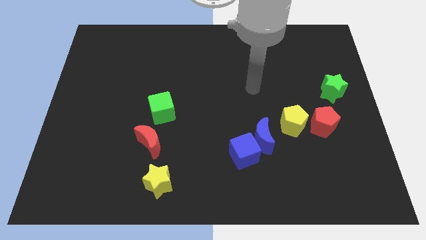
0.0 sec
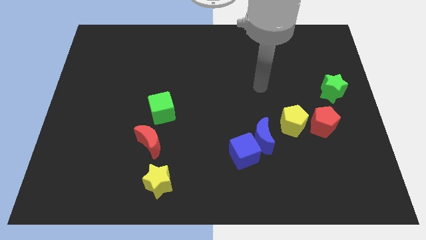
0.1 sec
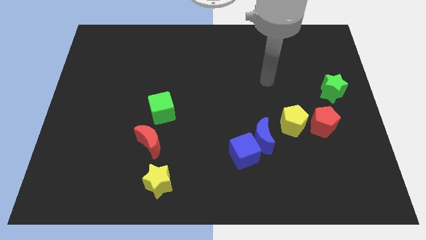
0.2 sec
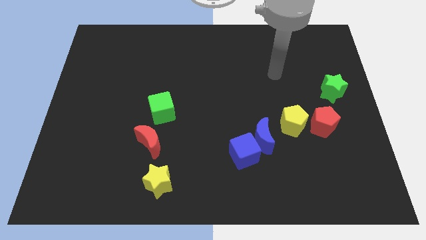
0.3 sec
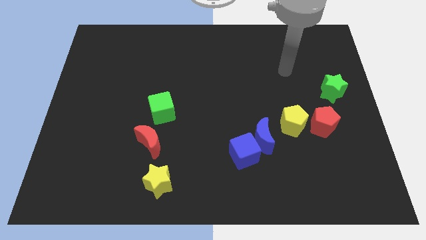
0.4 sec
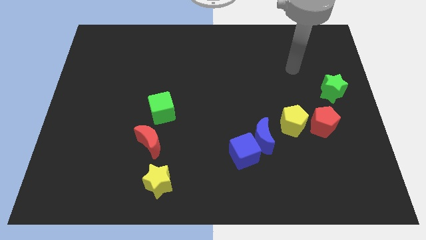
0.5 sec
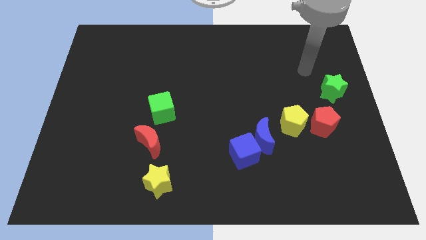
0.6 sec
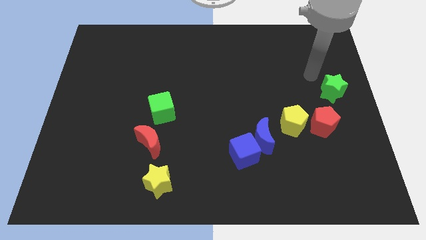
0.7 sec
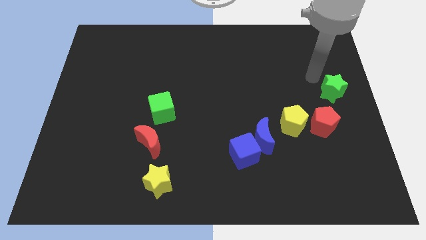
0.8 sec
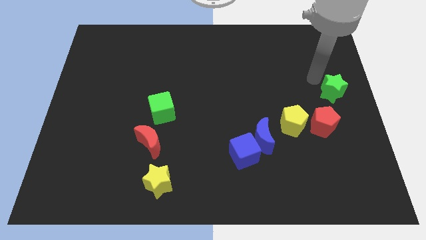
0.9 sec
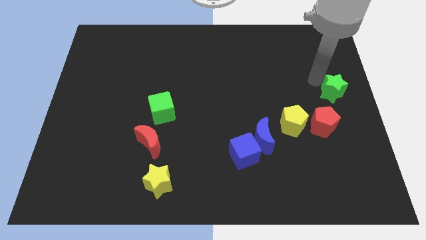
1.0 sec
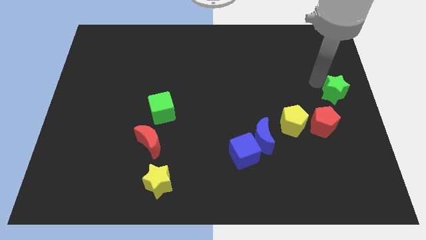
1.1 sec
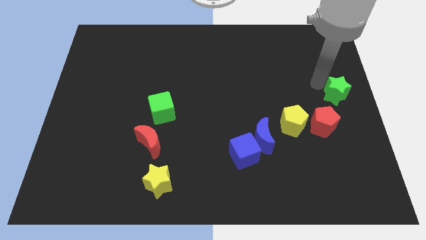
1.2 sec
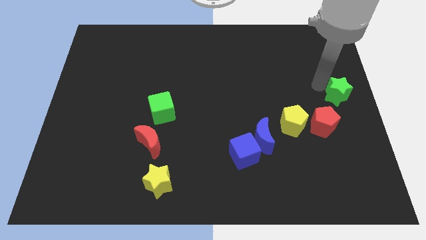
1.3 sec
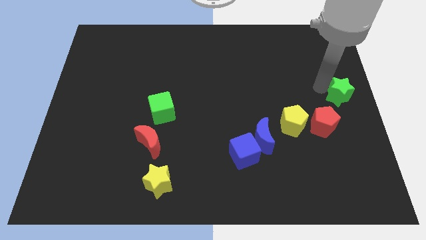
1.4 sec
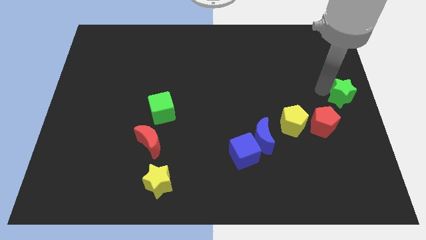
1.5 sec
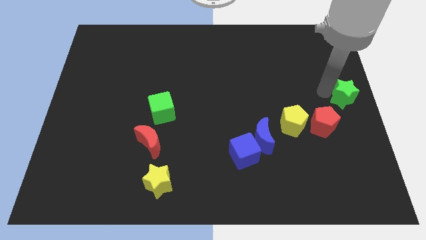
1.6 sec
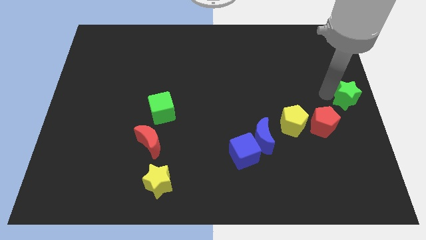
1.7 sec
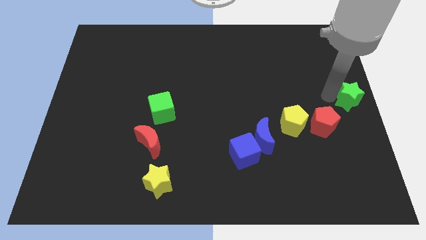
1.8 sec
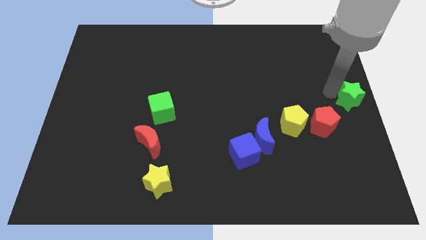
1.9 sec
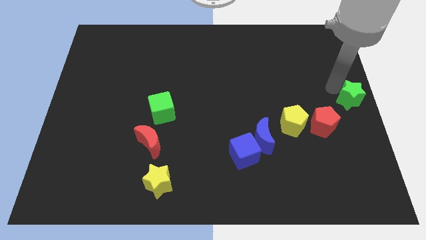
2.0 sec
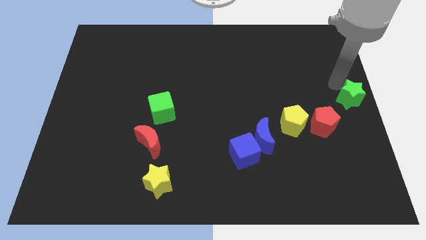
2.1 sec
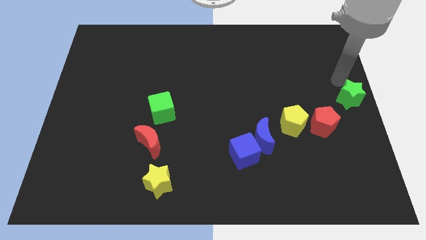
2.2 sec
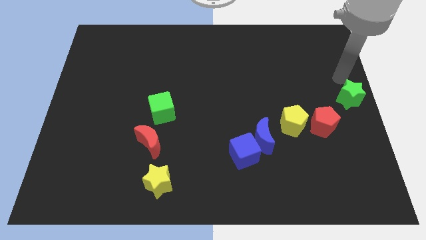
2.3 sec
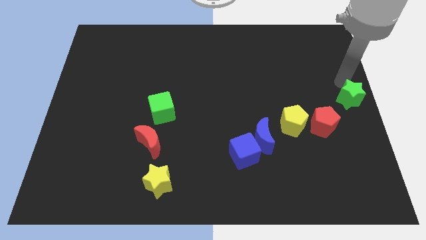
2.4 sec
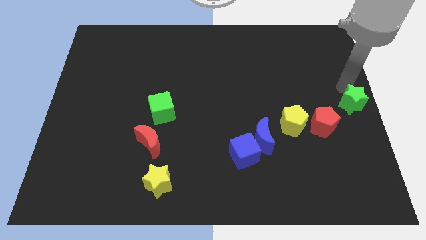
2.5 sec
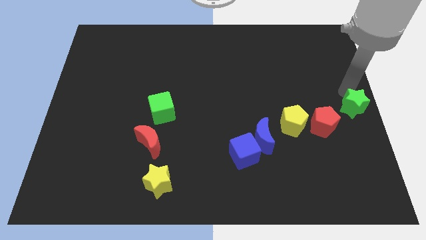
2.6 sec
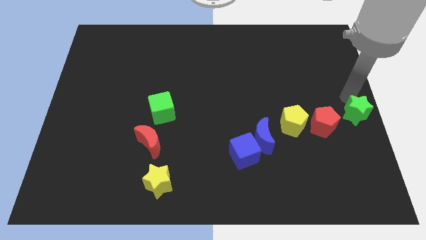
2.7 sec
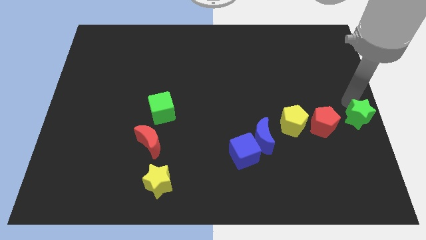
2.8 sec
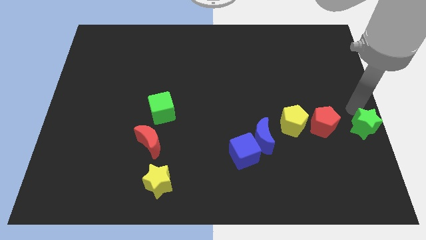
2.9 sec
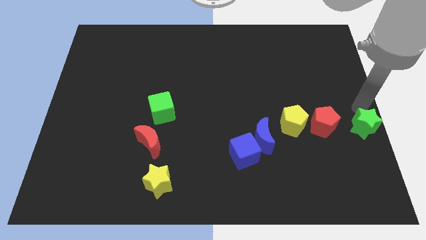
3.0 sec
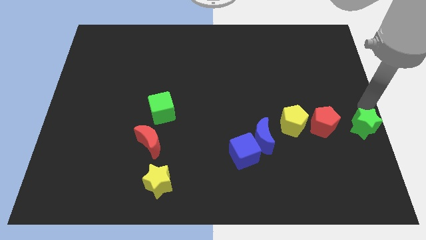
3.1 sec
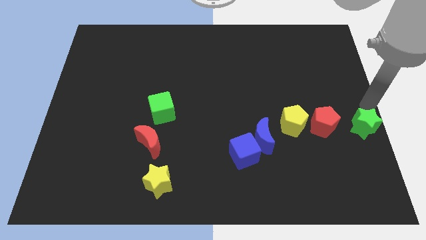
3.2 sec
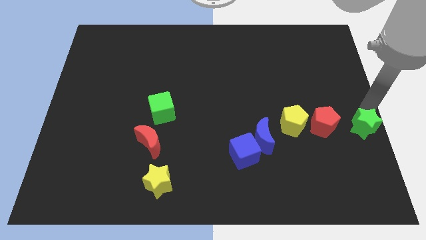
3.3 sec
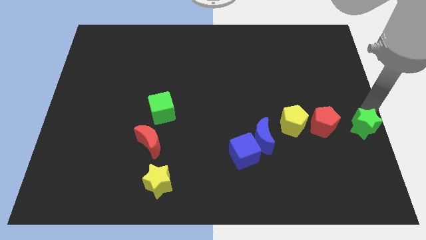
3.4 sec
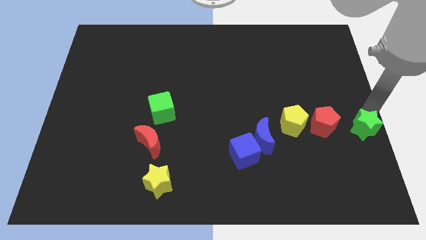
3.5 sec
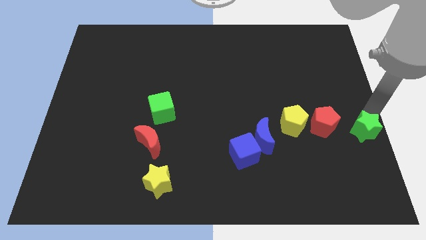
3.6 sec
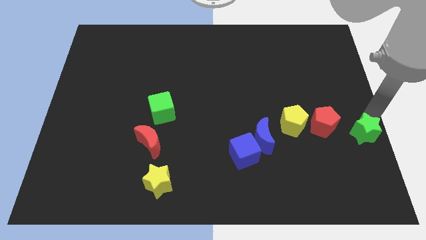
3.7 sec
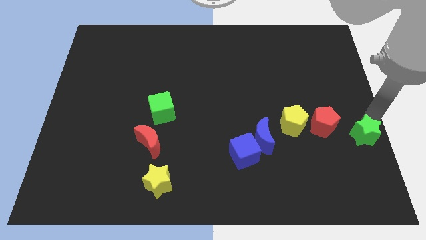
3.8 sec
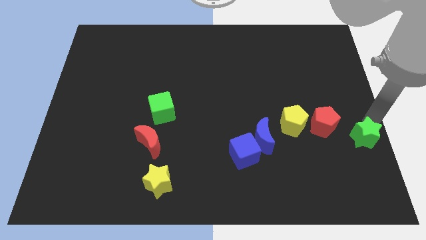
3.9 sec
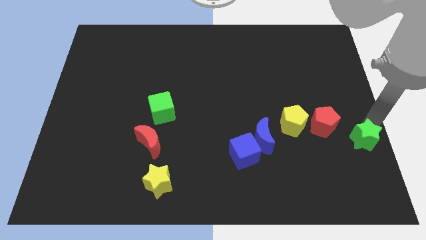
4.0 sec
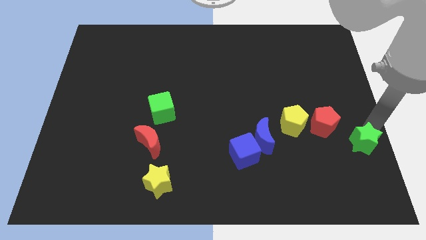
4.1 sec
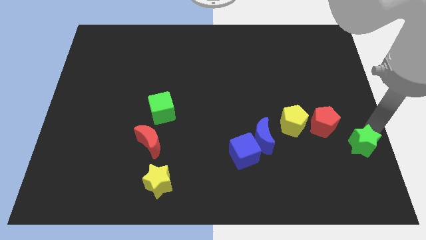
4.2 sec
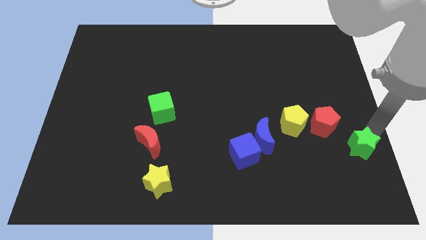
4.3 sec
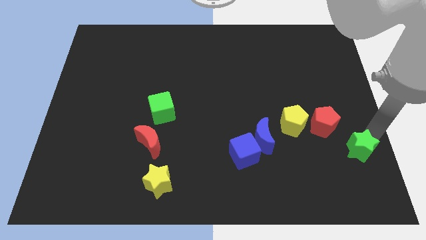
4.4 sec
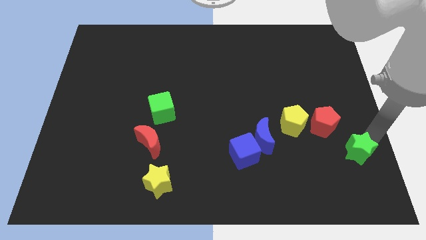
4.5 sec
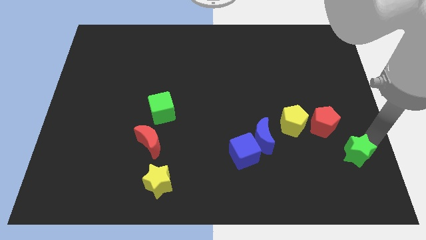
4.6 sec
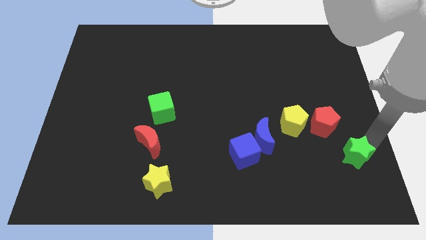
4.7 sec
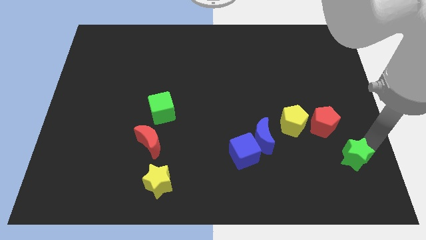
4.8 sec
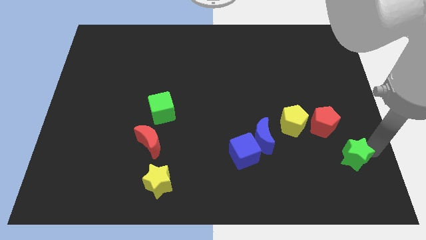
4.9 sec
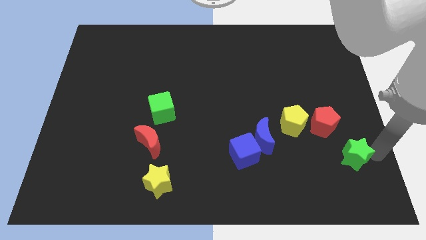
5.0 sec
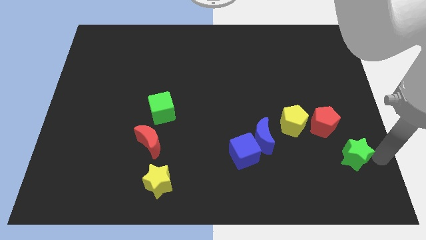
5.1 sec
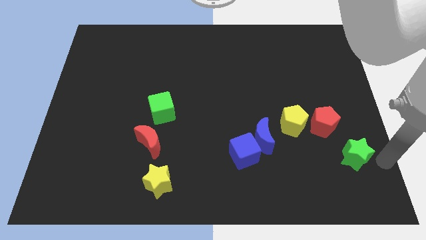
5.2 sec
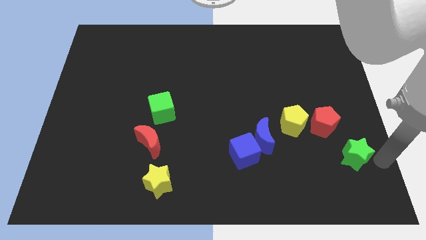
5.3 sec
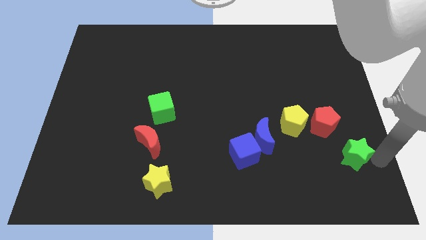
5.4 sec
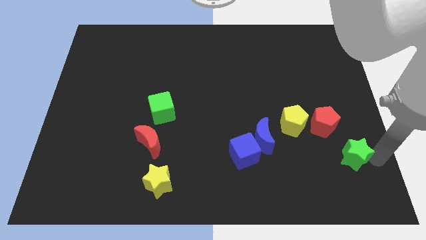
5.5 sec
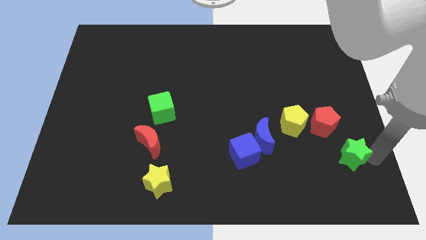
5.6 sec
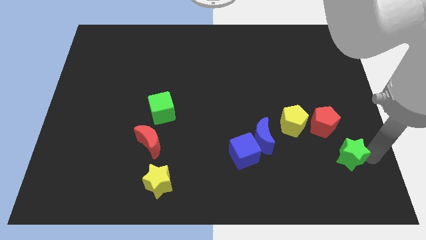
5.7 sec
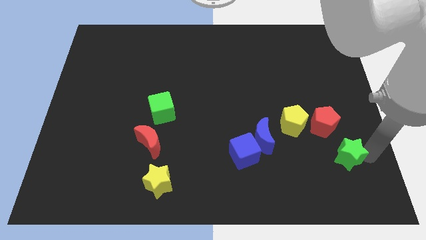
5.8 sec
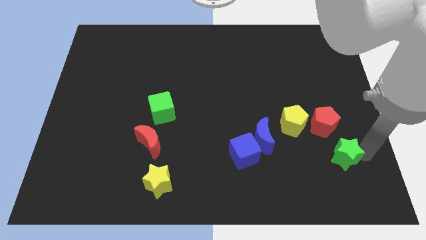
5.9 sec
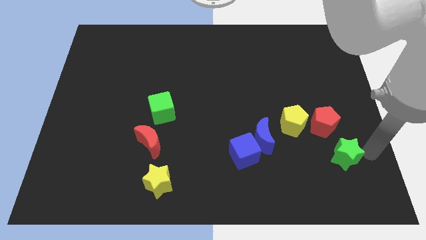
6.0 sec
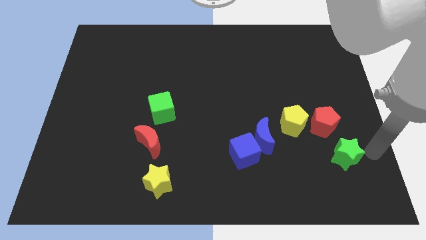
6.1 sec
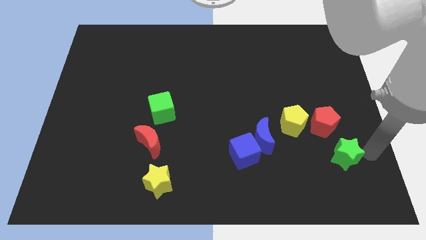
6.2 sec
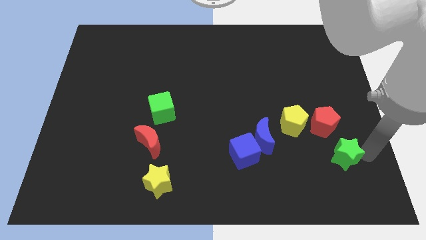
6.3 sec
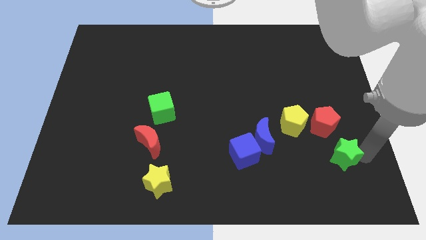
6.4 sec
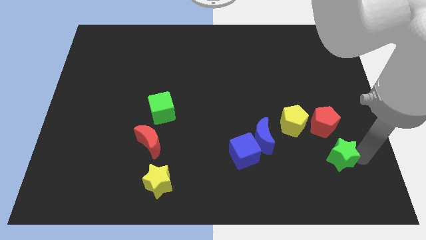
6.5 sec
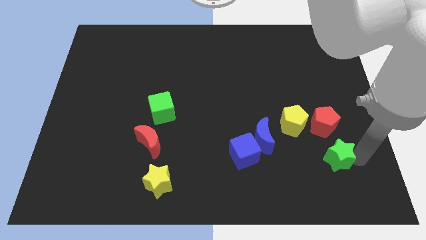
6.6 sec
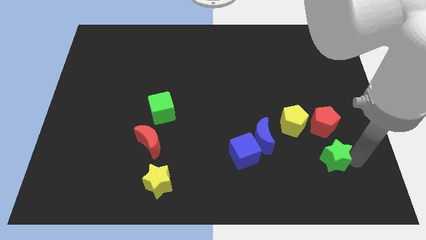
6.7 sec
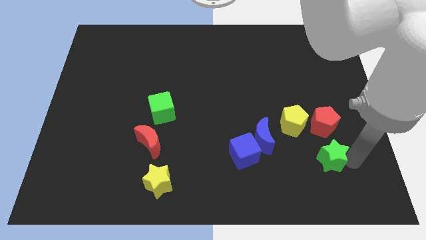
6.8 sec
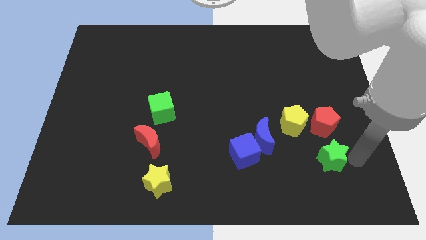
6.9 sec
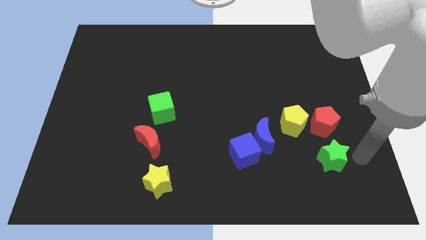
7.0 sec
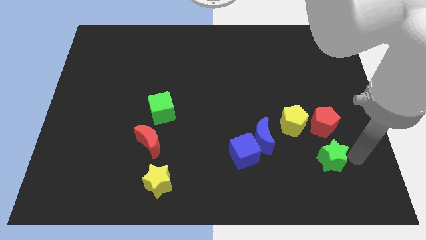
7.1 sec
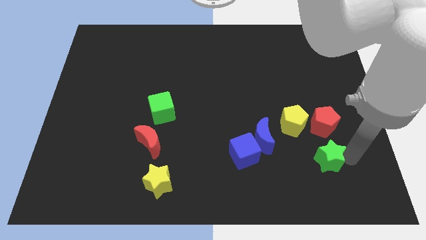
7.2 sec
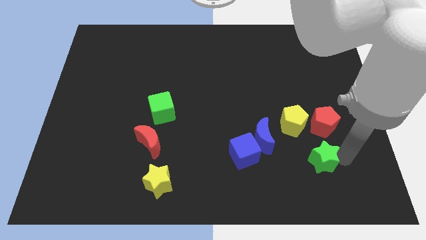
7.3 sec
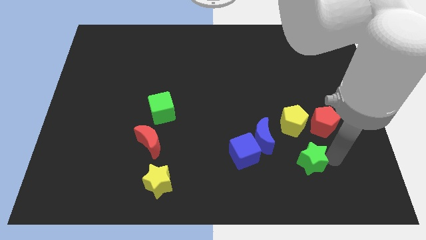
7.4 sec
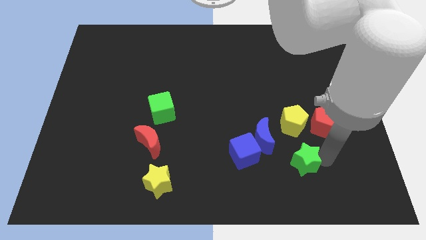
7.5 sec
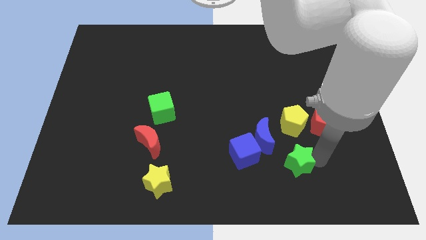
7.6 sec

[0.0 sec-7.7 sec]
slide the green star down and to the left

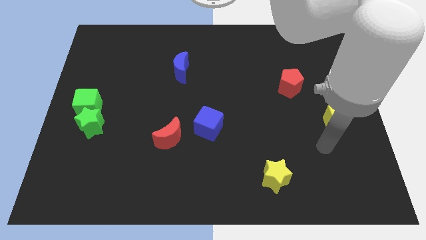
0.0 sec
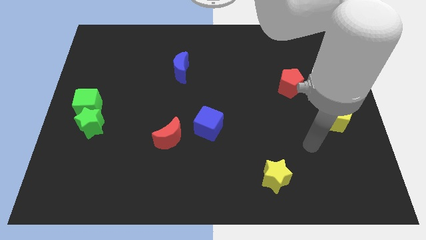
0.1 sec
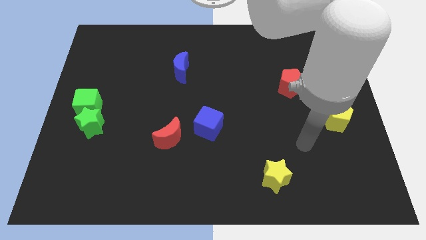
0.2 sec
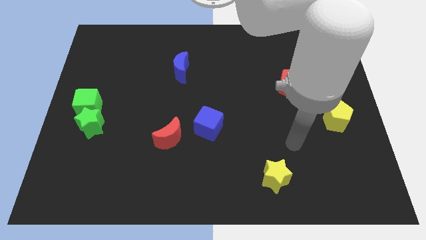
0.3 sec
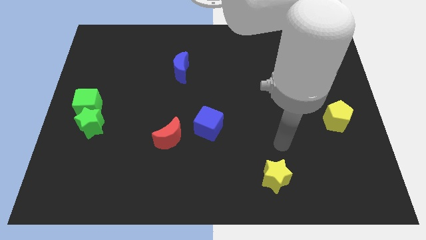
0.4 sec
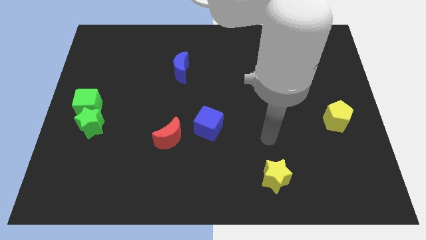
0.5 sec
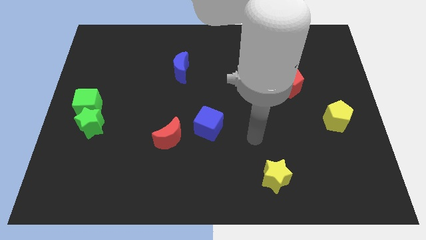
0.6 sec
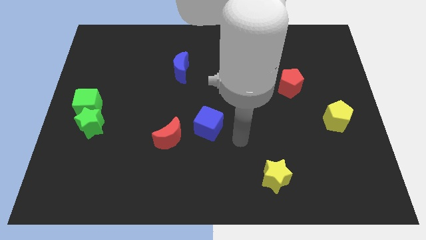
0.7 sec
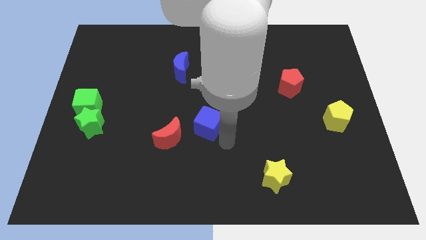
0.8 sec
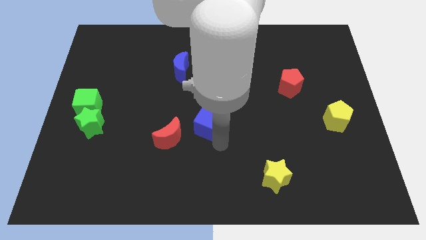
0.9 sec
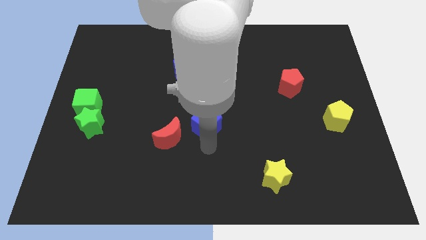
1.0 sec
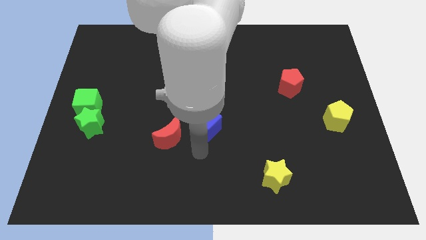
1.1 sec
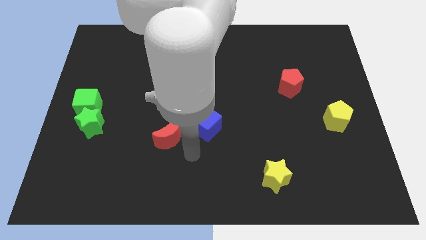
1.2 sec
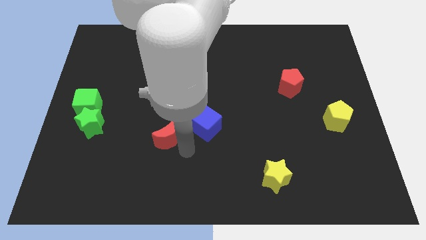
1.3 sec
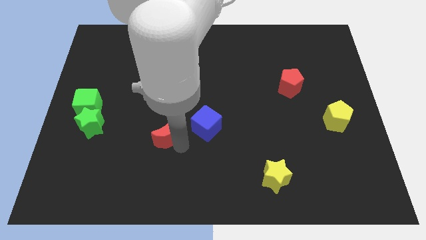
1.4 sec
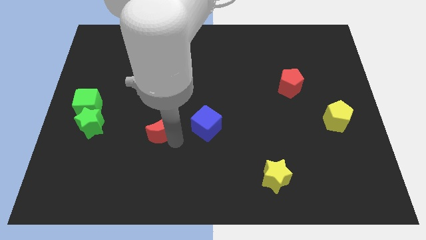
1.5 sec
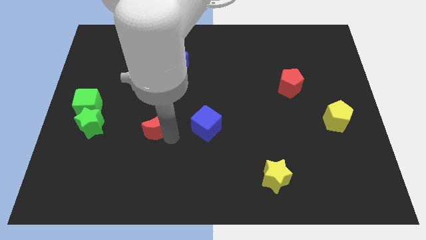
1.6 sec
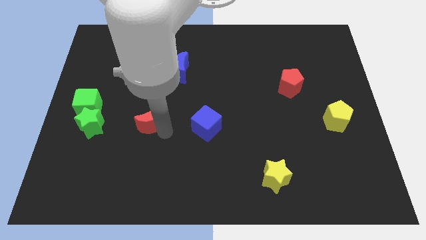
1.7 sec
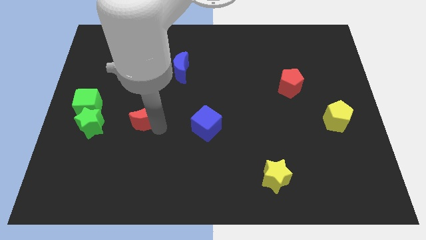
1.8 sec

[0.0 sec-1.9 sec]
slightly slide the red moon diagonally upwards and to the left
